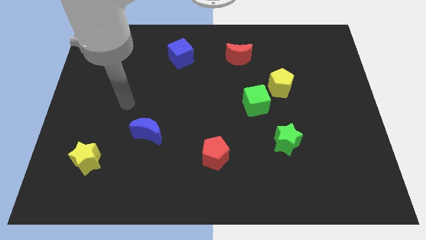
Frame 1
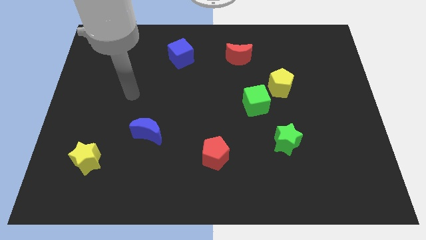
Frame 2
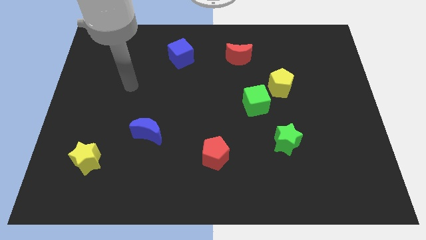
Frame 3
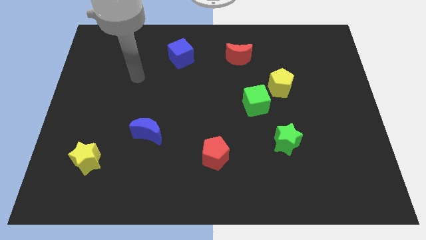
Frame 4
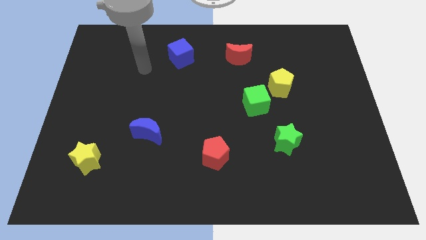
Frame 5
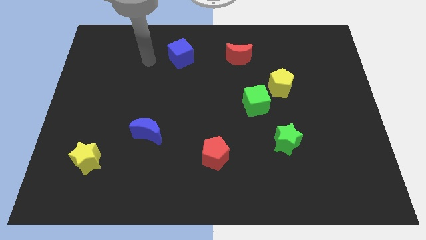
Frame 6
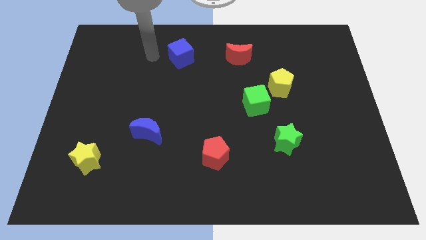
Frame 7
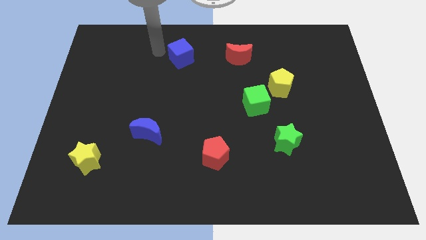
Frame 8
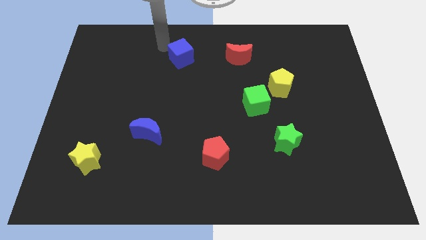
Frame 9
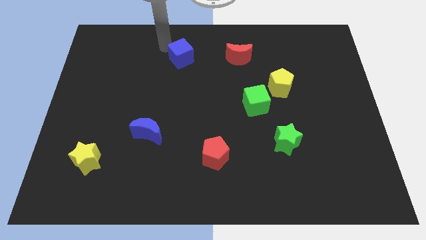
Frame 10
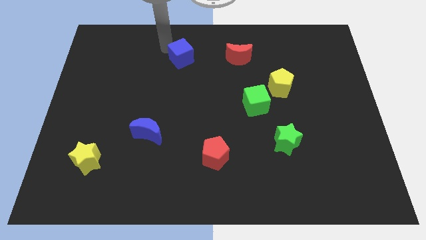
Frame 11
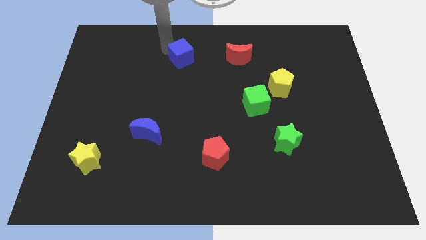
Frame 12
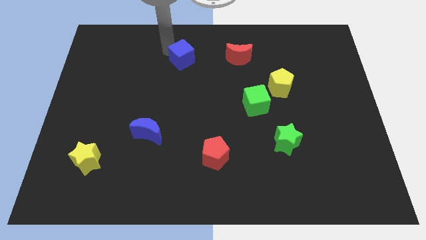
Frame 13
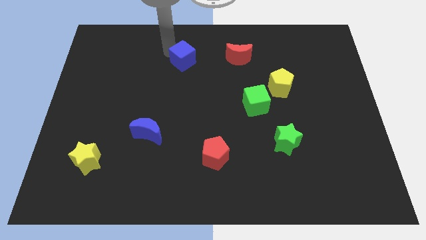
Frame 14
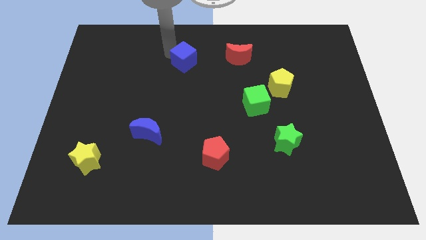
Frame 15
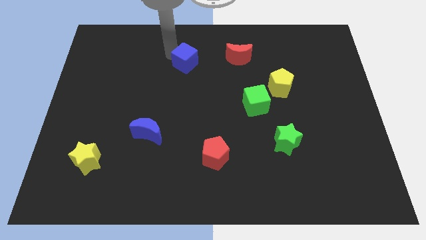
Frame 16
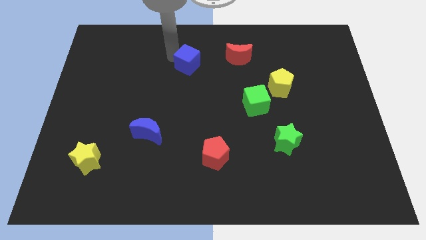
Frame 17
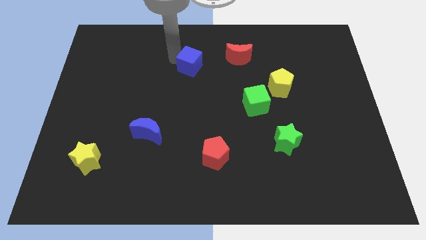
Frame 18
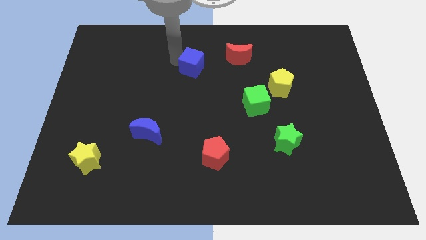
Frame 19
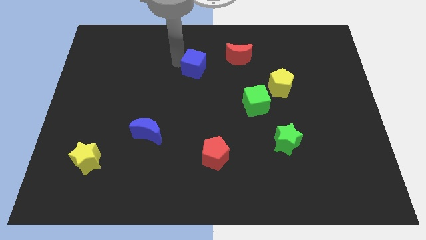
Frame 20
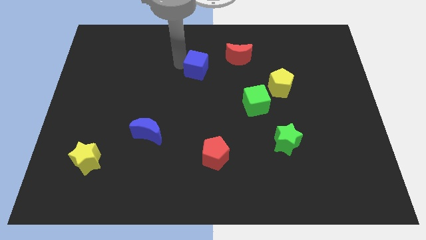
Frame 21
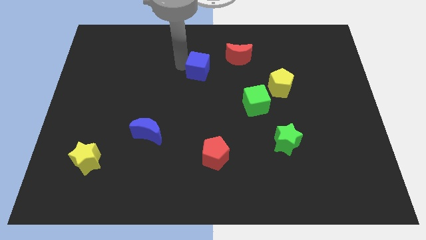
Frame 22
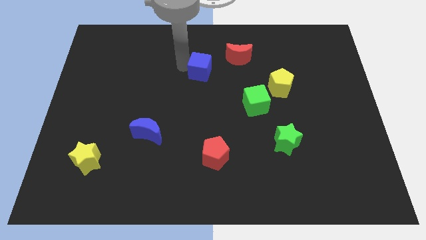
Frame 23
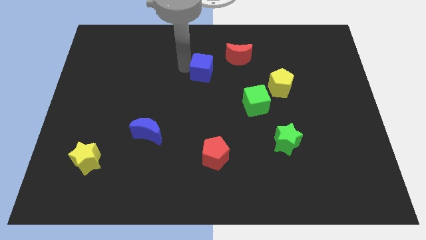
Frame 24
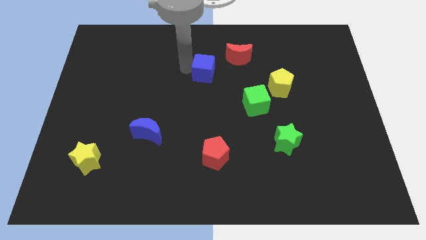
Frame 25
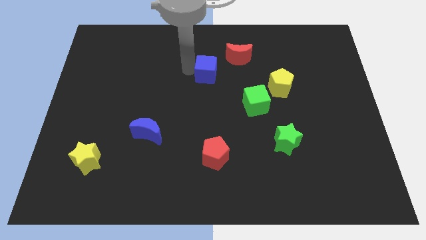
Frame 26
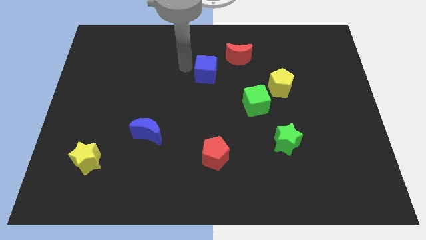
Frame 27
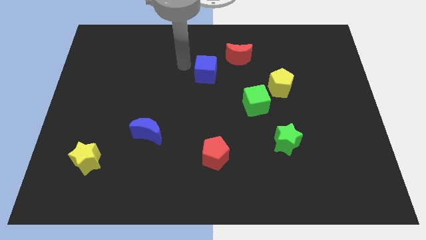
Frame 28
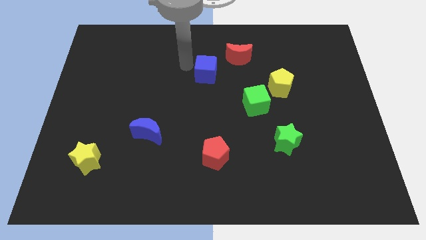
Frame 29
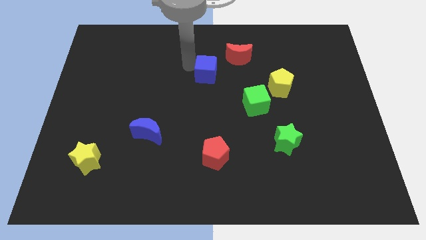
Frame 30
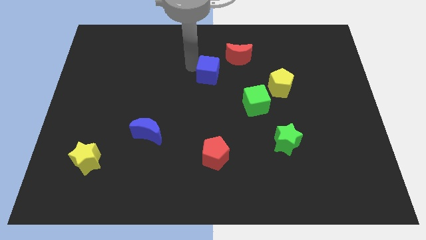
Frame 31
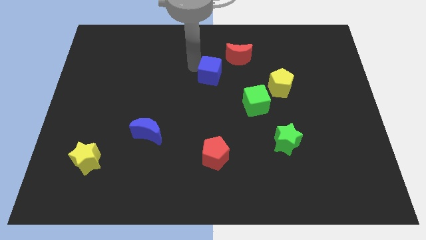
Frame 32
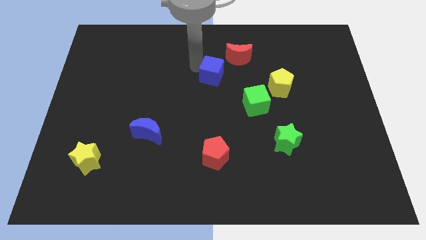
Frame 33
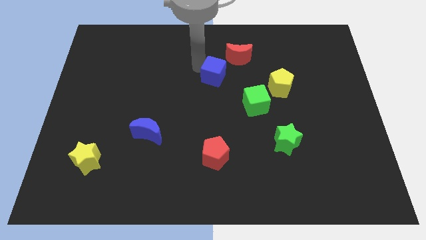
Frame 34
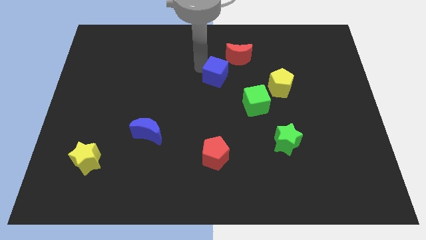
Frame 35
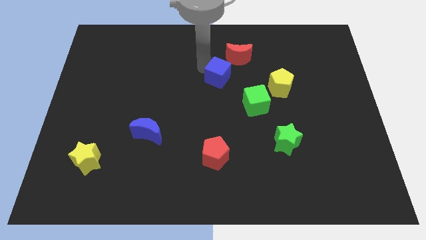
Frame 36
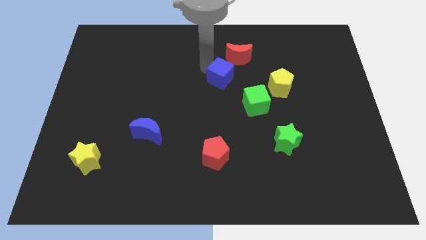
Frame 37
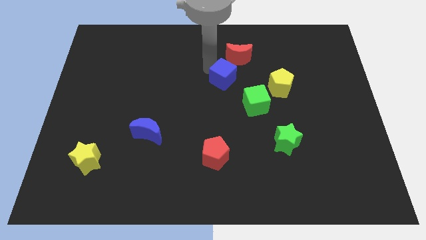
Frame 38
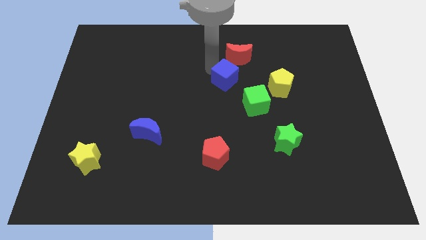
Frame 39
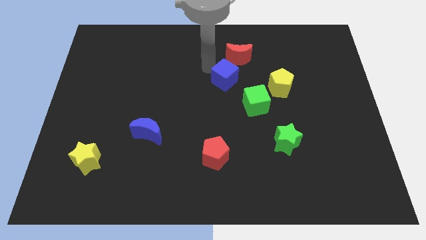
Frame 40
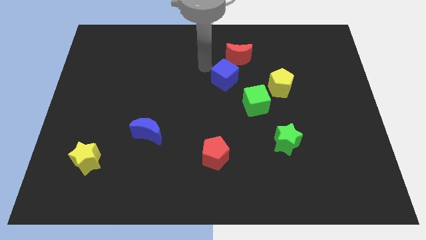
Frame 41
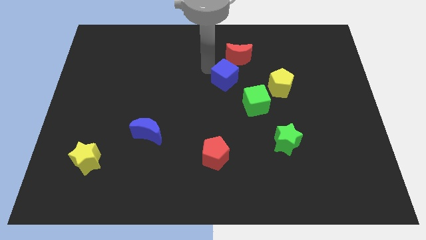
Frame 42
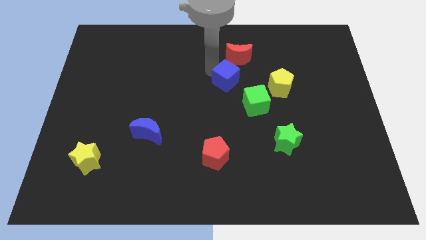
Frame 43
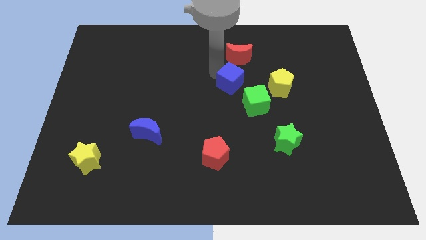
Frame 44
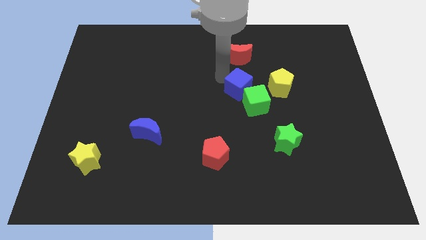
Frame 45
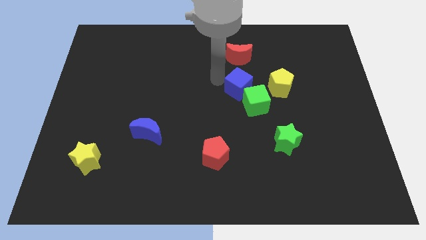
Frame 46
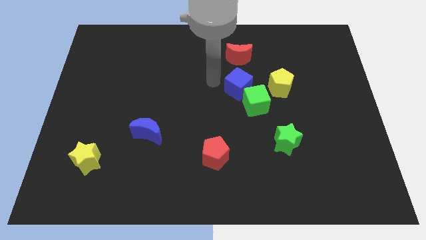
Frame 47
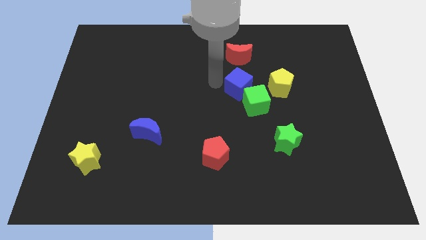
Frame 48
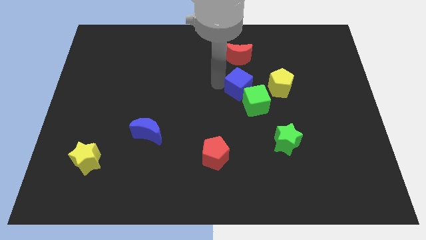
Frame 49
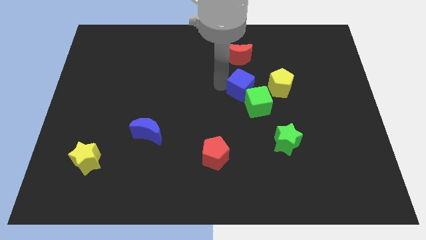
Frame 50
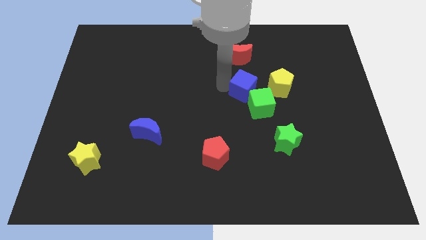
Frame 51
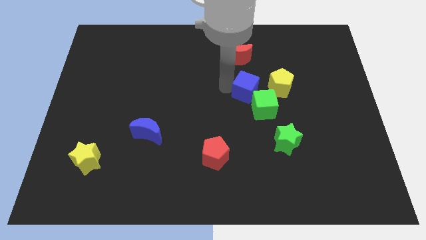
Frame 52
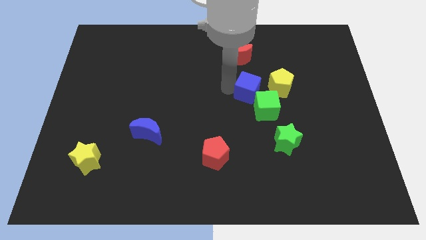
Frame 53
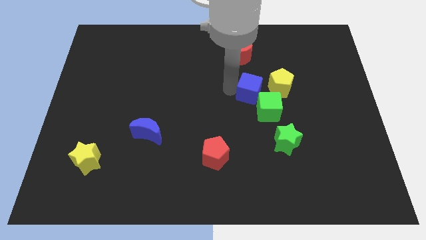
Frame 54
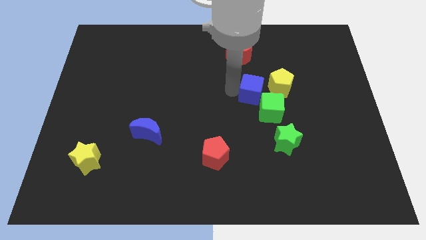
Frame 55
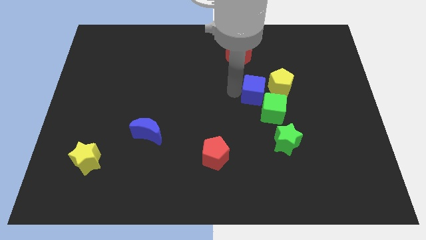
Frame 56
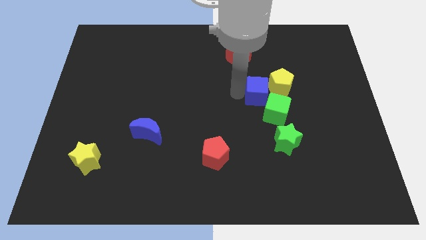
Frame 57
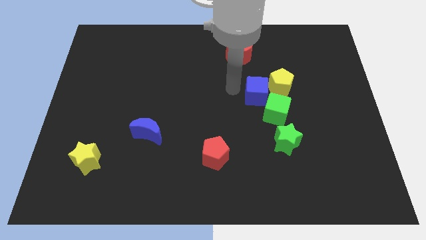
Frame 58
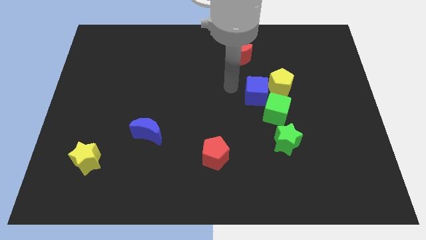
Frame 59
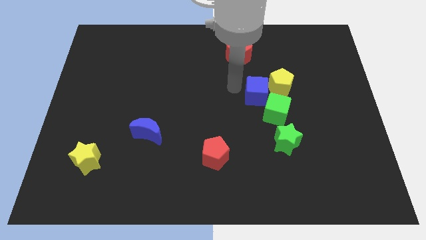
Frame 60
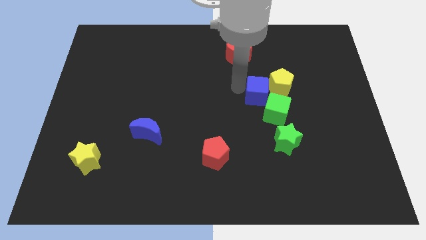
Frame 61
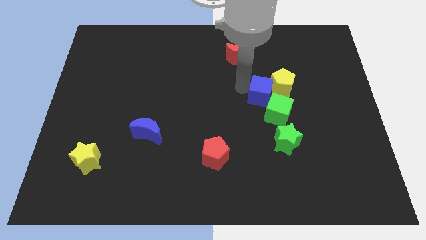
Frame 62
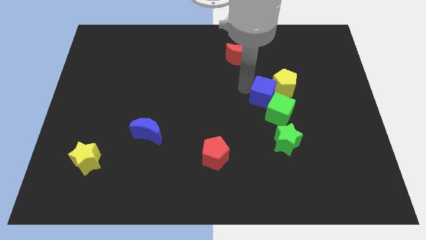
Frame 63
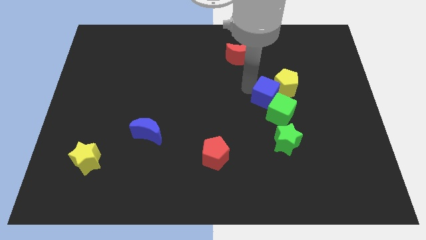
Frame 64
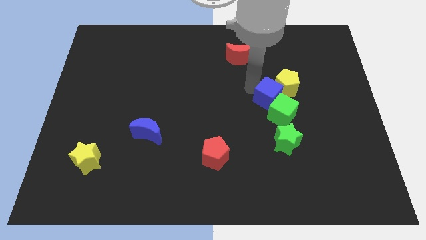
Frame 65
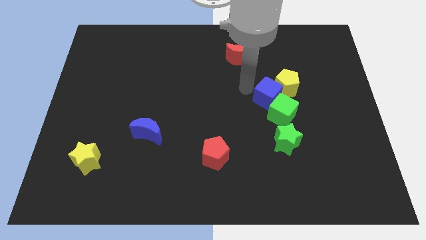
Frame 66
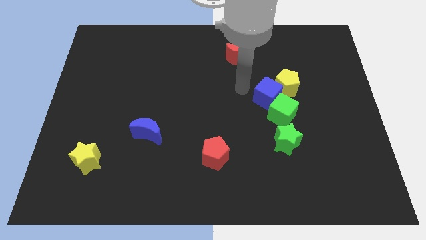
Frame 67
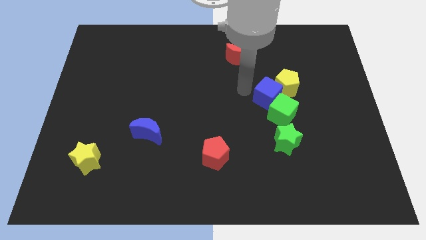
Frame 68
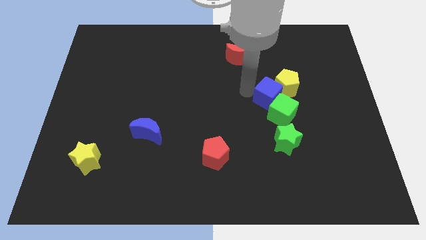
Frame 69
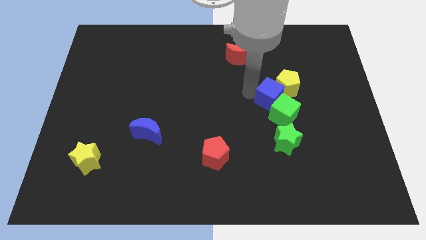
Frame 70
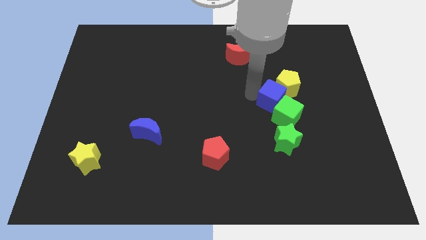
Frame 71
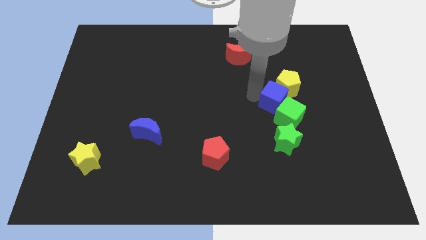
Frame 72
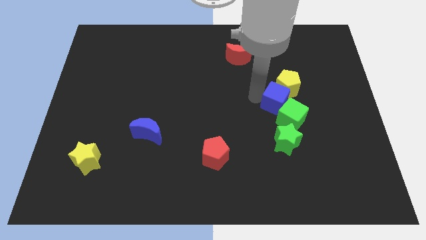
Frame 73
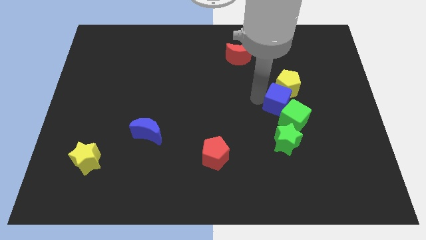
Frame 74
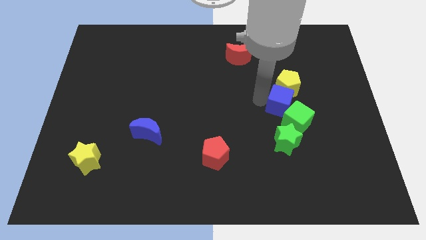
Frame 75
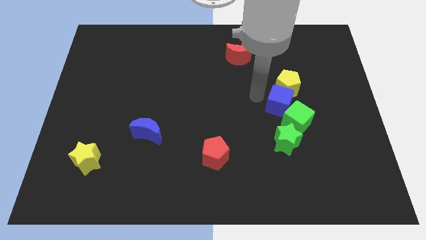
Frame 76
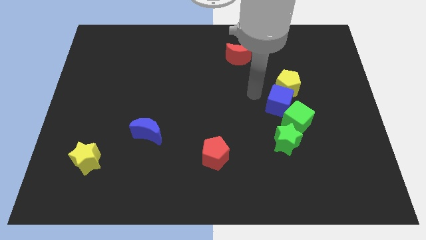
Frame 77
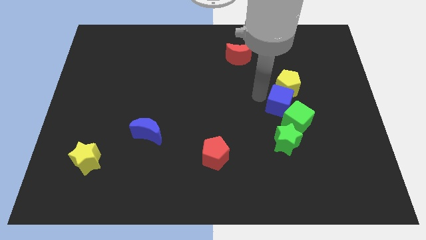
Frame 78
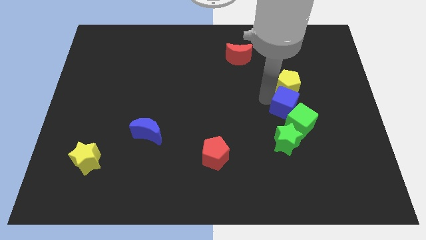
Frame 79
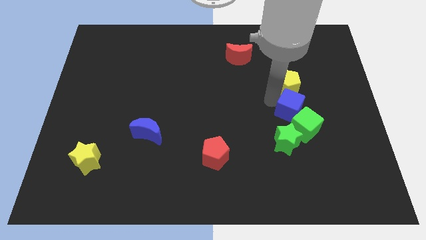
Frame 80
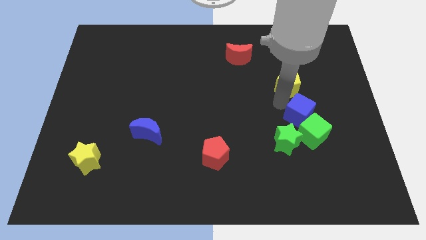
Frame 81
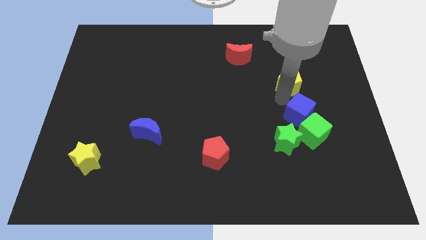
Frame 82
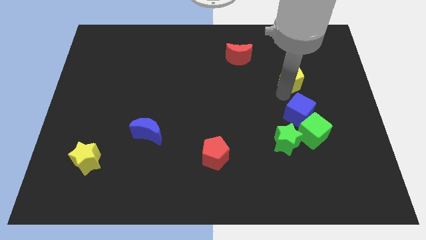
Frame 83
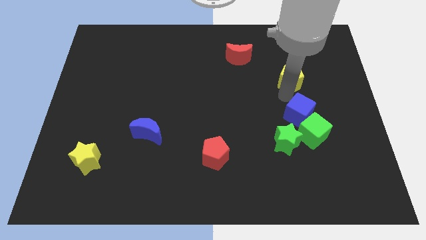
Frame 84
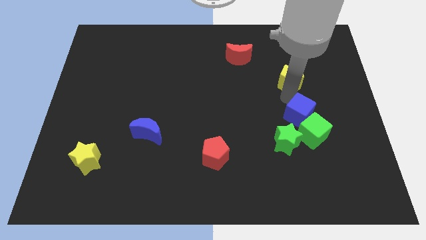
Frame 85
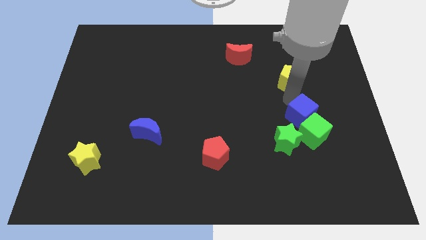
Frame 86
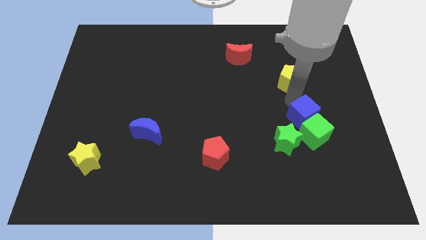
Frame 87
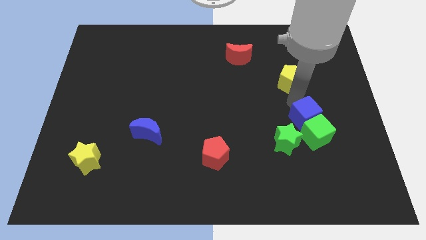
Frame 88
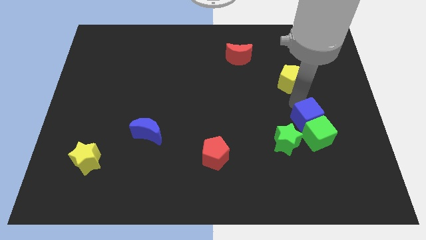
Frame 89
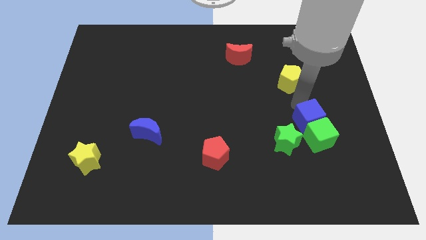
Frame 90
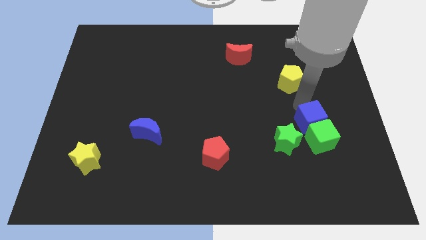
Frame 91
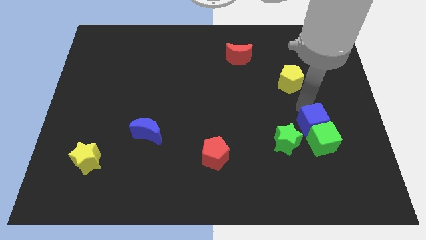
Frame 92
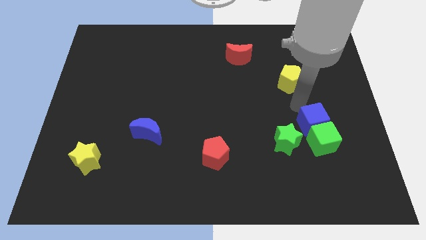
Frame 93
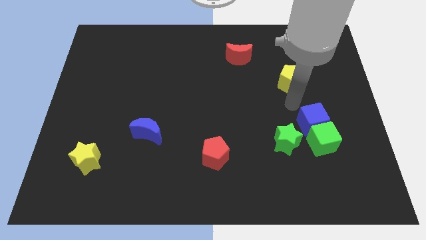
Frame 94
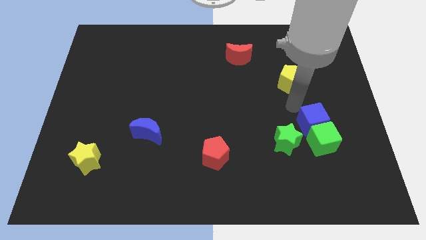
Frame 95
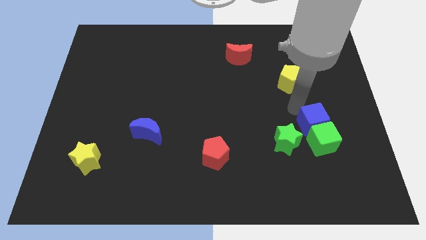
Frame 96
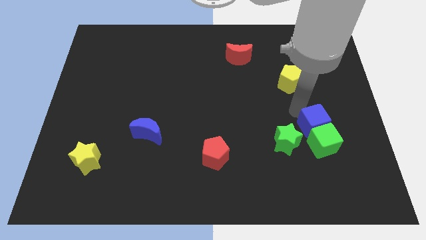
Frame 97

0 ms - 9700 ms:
move the blue cube just right of the green star
